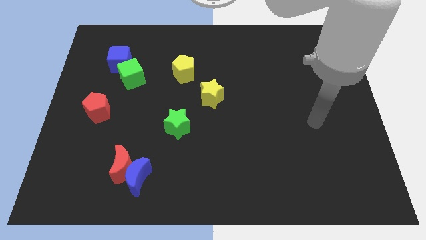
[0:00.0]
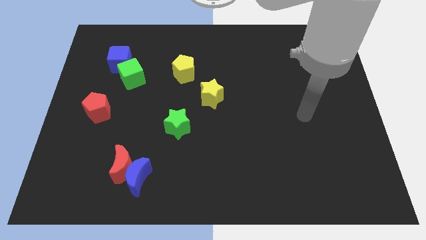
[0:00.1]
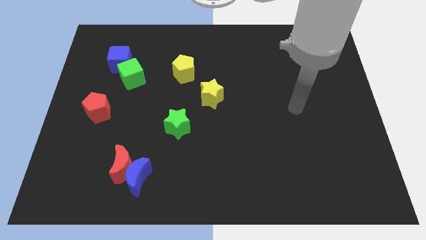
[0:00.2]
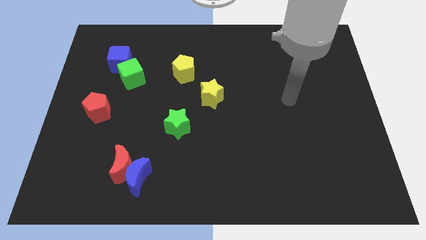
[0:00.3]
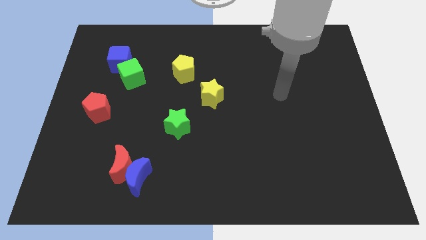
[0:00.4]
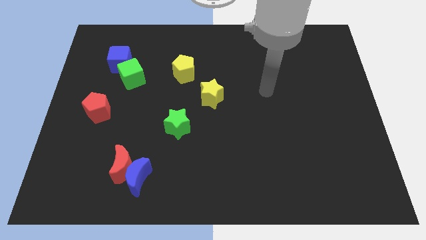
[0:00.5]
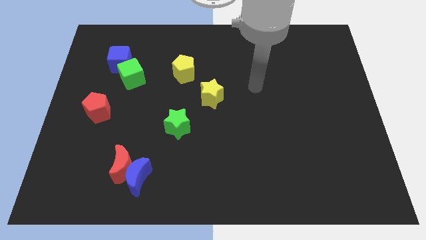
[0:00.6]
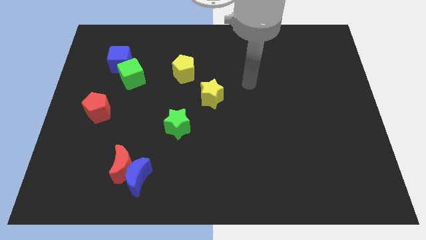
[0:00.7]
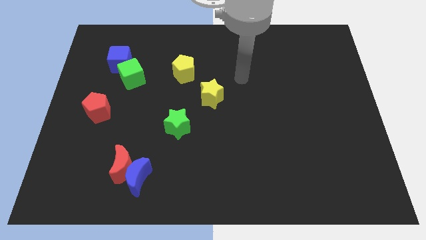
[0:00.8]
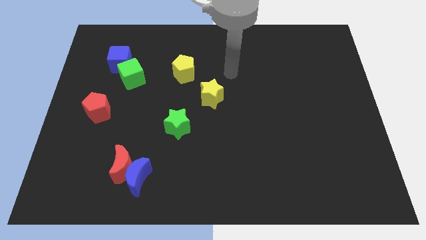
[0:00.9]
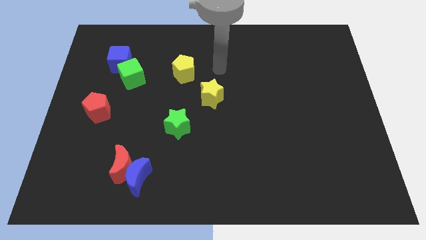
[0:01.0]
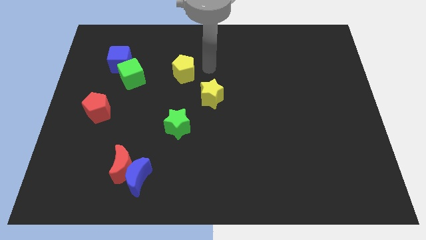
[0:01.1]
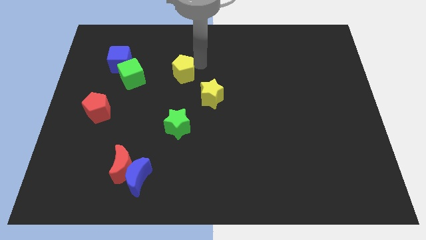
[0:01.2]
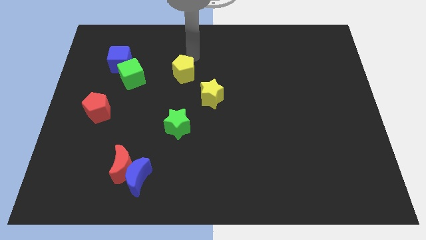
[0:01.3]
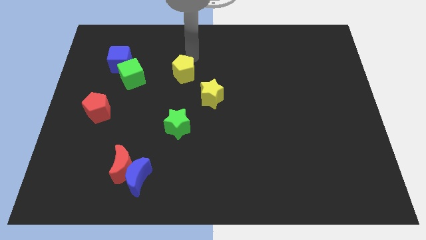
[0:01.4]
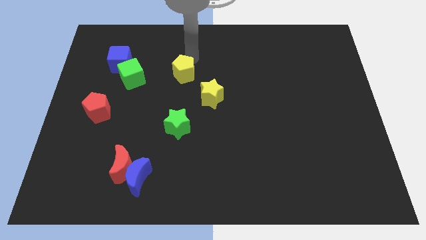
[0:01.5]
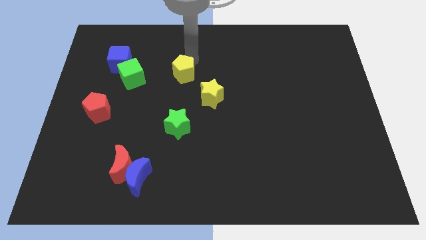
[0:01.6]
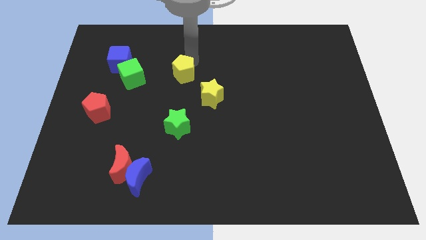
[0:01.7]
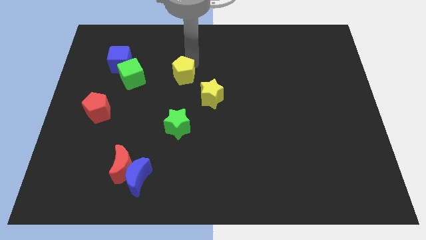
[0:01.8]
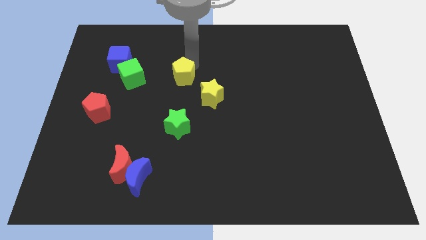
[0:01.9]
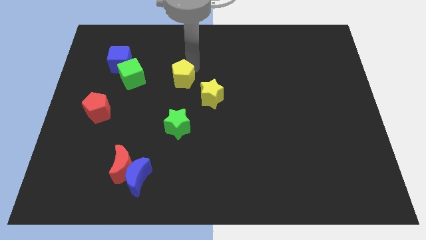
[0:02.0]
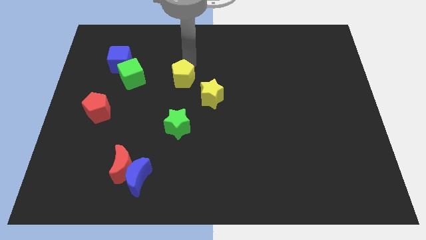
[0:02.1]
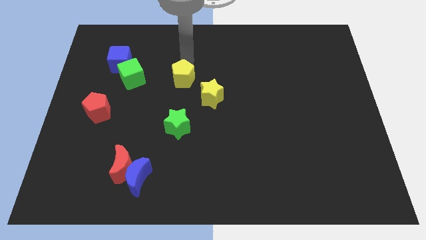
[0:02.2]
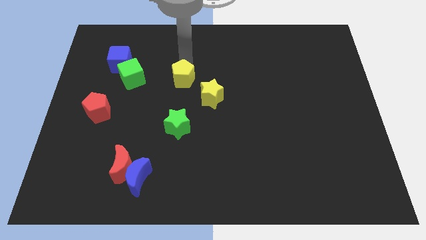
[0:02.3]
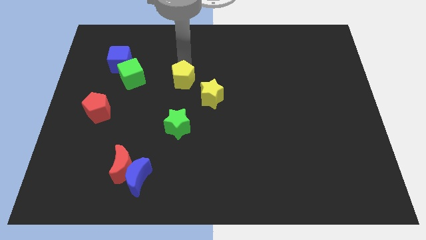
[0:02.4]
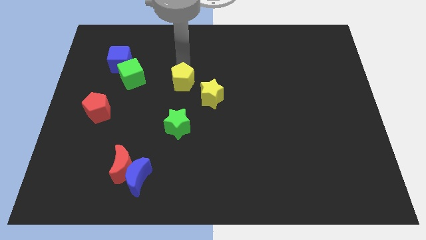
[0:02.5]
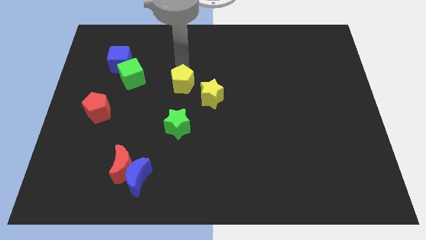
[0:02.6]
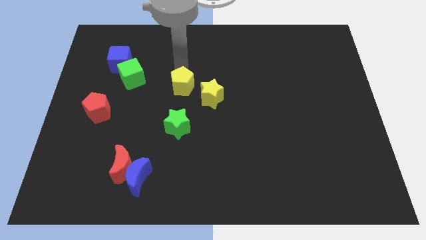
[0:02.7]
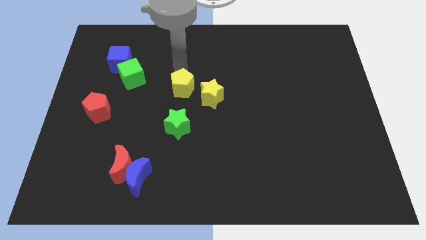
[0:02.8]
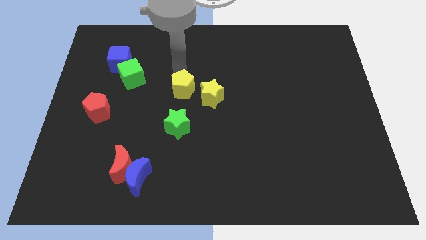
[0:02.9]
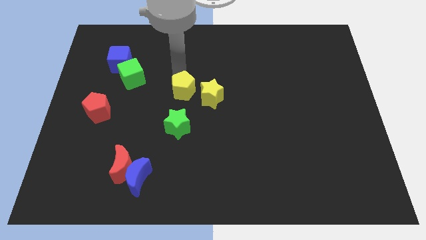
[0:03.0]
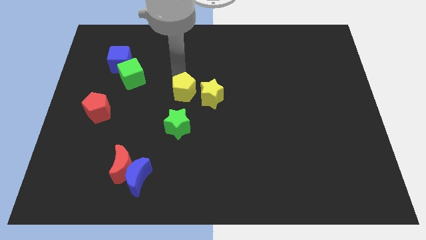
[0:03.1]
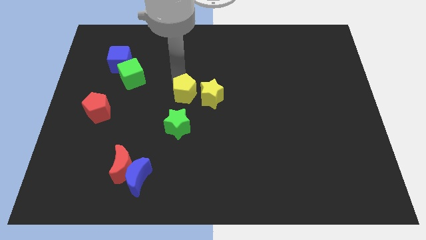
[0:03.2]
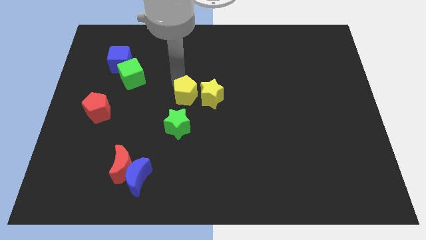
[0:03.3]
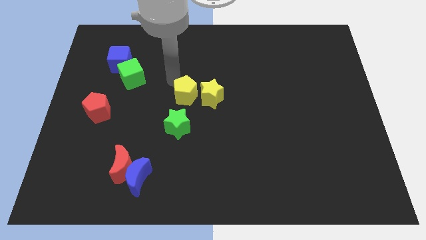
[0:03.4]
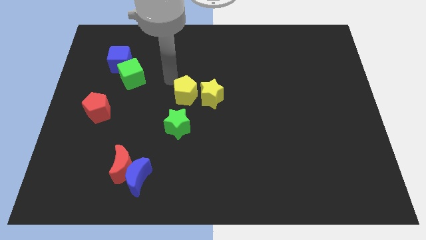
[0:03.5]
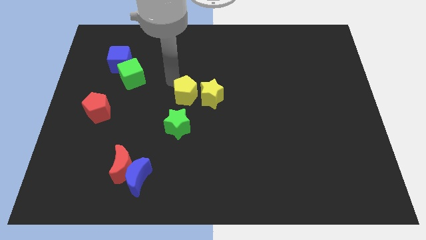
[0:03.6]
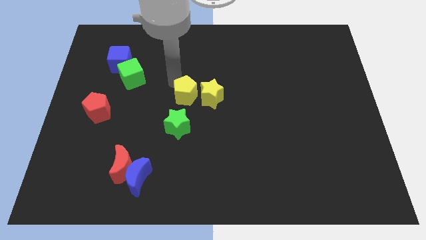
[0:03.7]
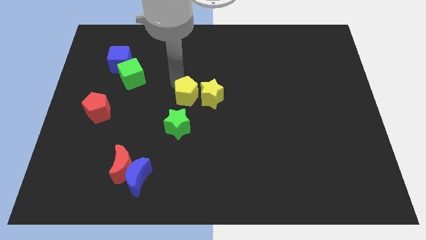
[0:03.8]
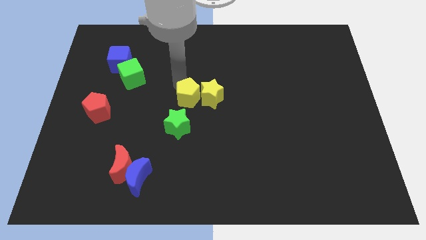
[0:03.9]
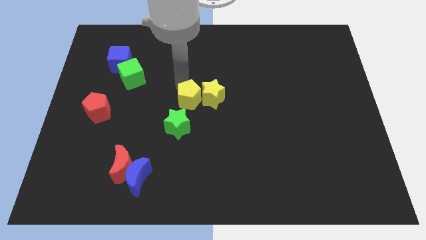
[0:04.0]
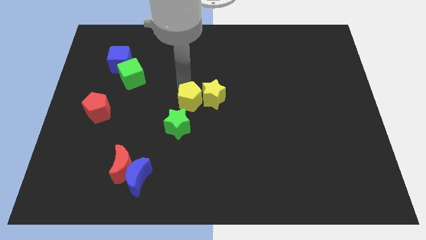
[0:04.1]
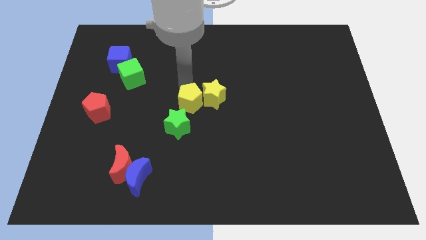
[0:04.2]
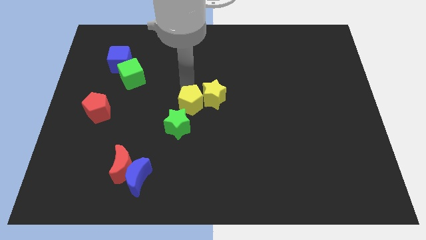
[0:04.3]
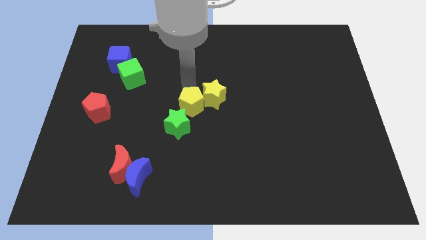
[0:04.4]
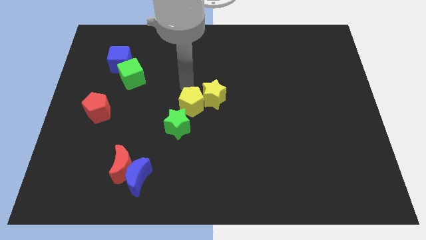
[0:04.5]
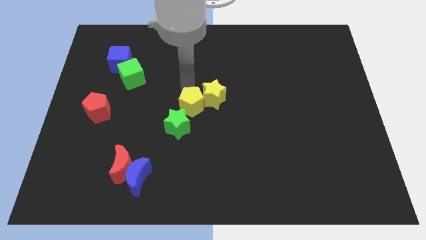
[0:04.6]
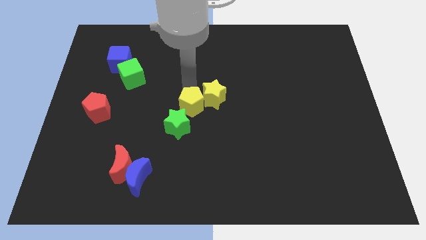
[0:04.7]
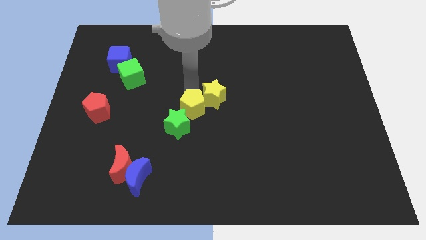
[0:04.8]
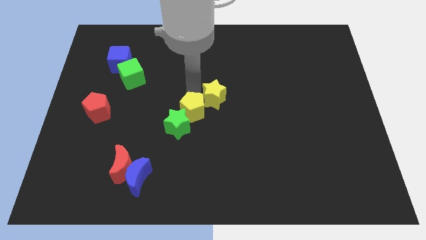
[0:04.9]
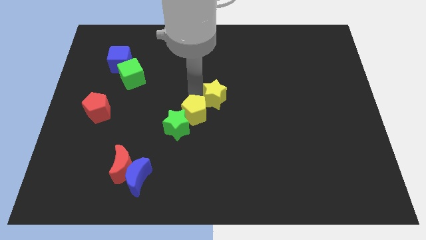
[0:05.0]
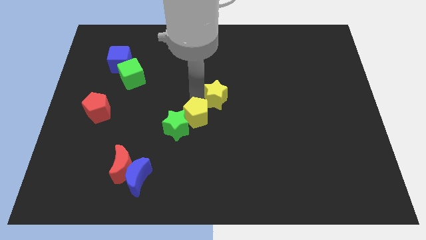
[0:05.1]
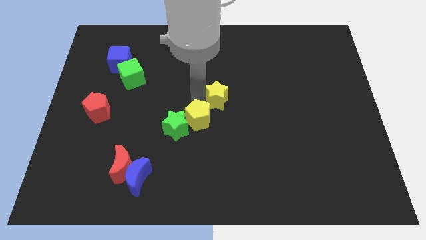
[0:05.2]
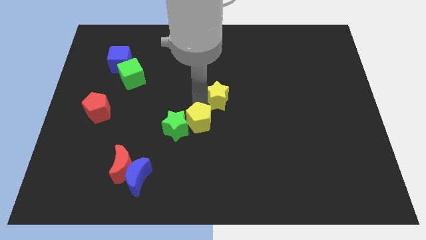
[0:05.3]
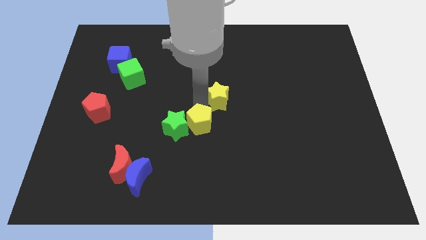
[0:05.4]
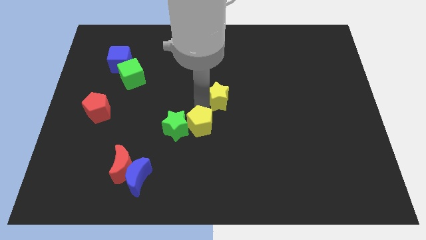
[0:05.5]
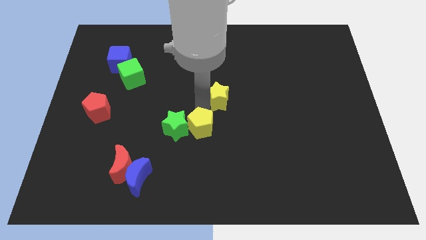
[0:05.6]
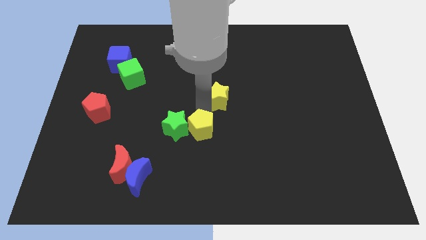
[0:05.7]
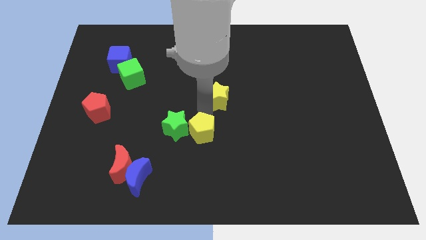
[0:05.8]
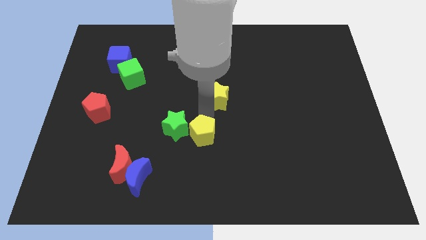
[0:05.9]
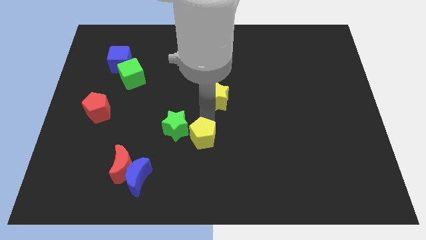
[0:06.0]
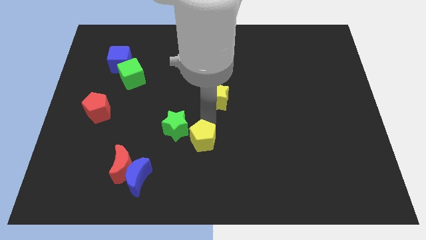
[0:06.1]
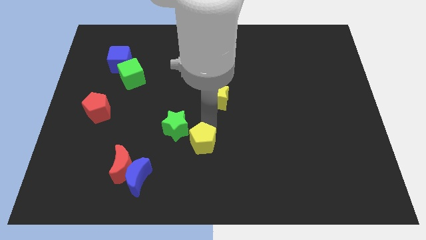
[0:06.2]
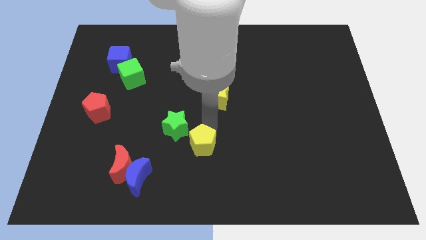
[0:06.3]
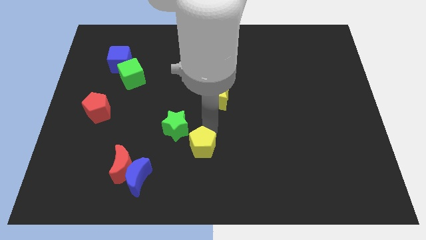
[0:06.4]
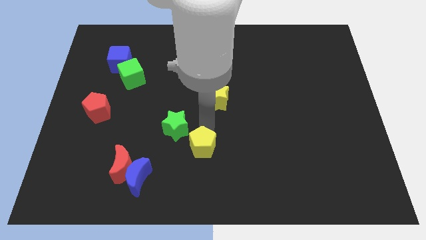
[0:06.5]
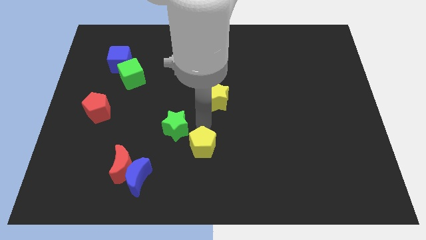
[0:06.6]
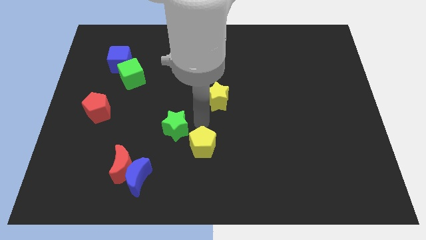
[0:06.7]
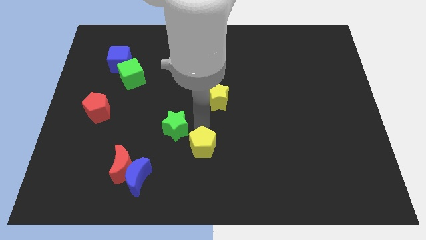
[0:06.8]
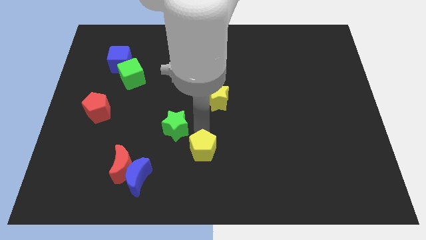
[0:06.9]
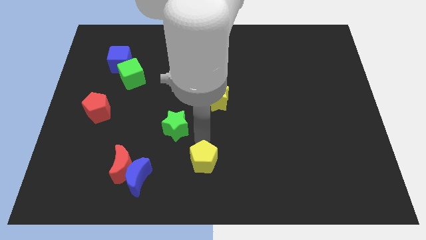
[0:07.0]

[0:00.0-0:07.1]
push the yellow pentagon to the bottom side
